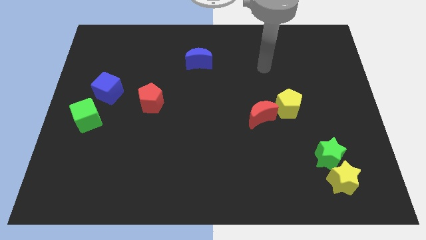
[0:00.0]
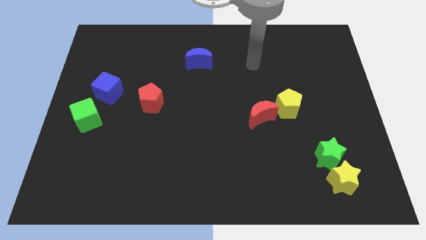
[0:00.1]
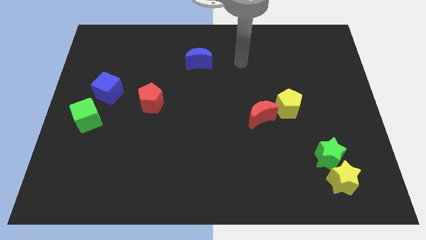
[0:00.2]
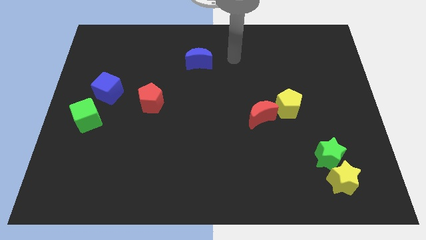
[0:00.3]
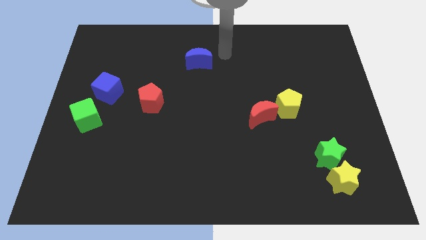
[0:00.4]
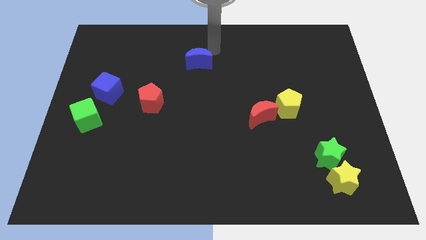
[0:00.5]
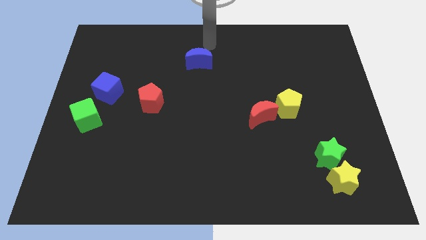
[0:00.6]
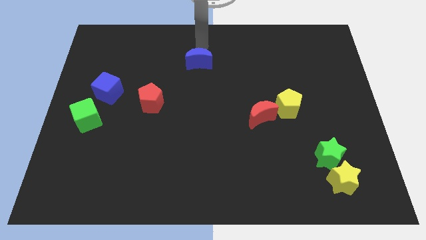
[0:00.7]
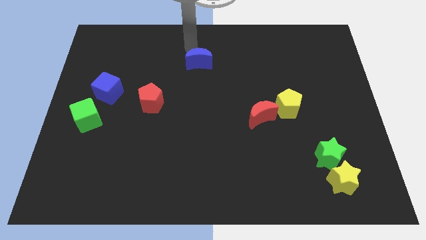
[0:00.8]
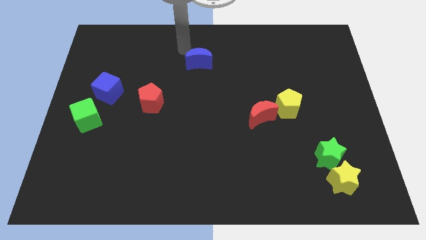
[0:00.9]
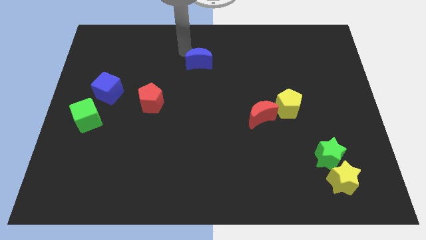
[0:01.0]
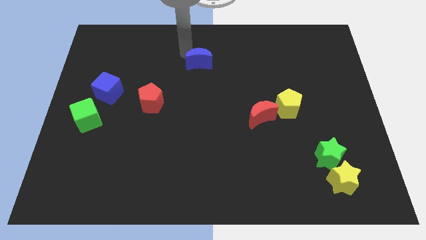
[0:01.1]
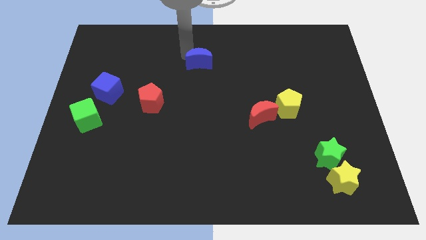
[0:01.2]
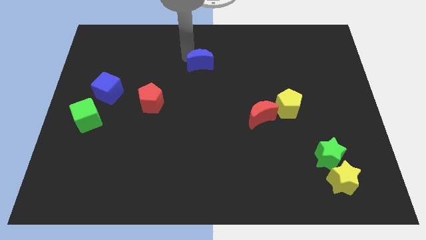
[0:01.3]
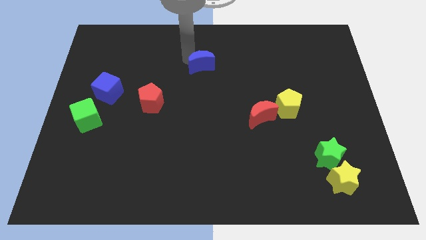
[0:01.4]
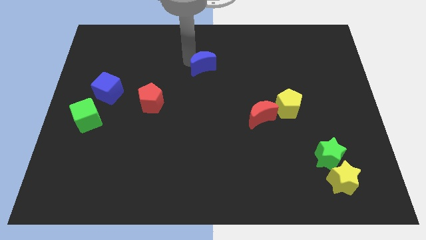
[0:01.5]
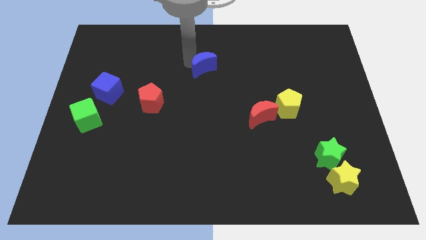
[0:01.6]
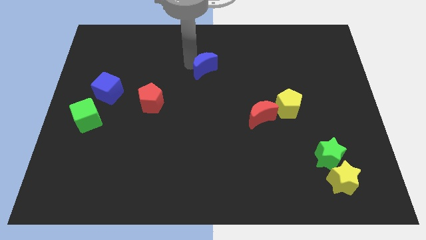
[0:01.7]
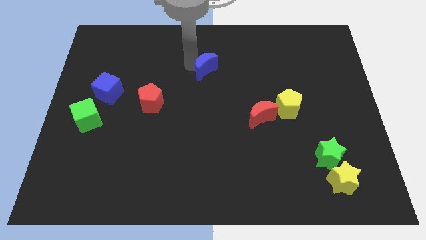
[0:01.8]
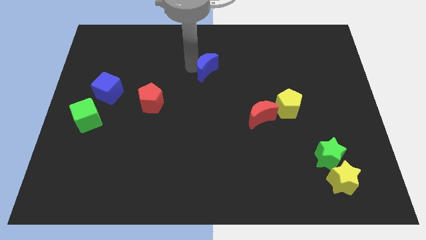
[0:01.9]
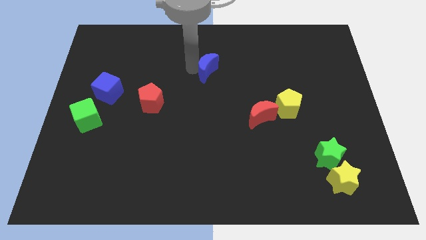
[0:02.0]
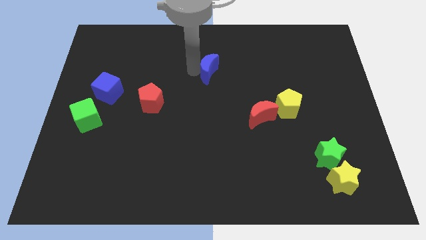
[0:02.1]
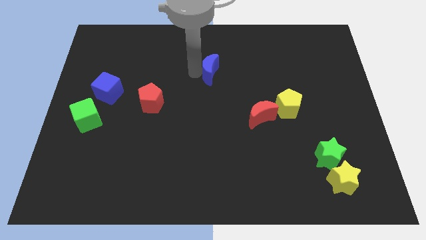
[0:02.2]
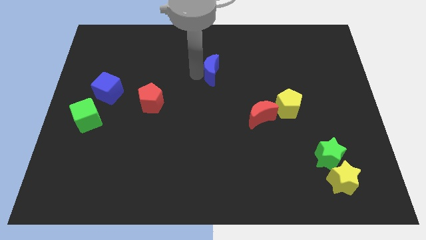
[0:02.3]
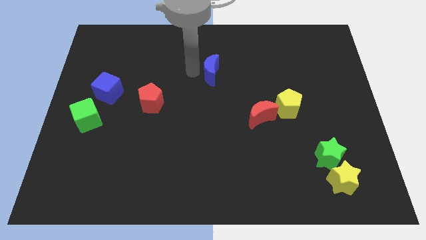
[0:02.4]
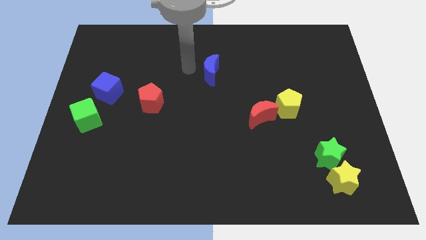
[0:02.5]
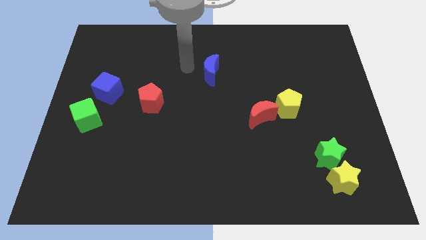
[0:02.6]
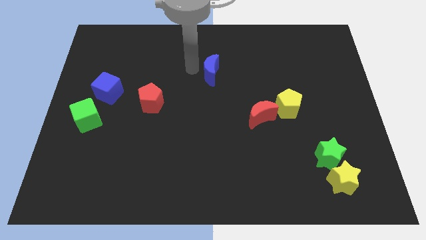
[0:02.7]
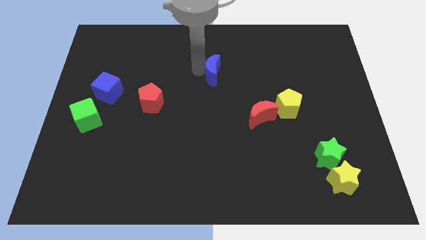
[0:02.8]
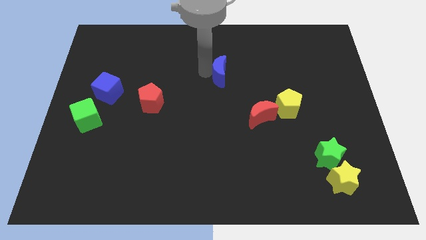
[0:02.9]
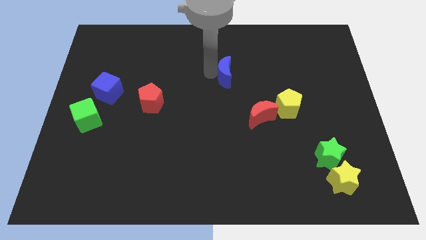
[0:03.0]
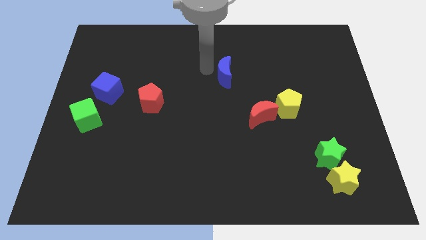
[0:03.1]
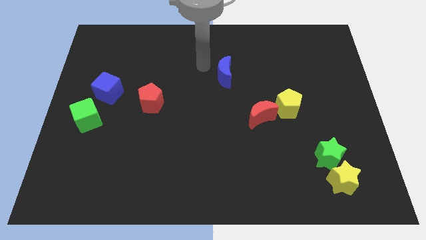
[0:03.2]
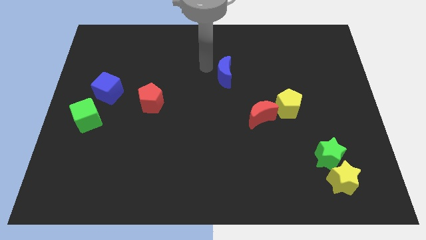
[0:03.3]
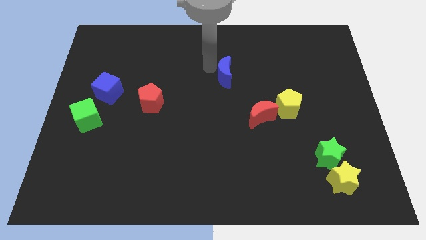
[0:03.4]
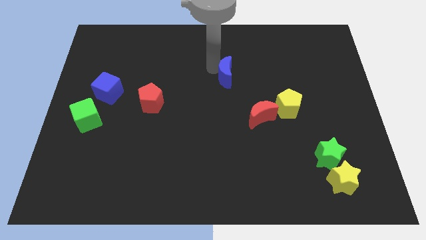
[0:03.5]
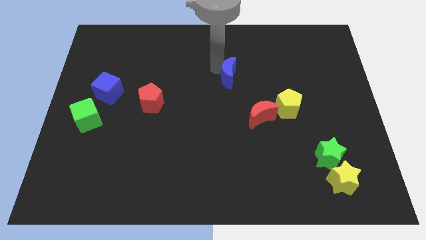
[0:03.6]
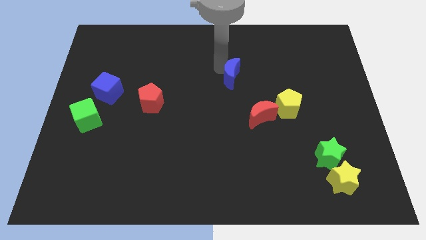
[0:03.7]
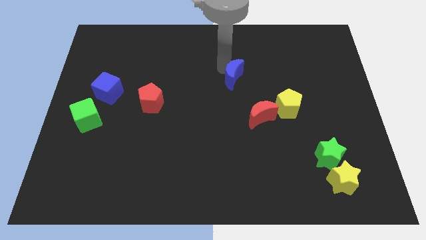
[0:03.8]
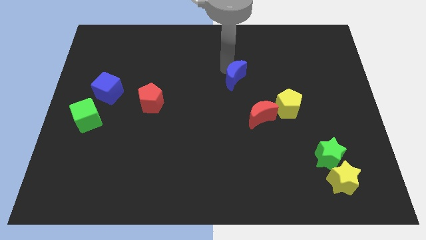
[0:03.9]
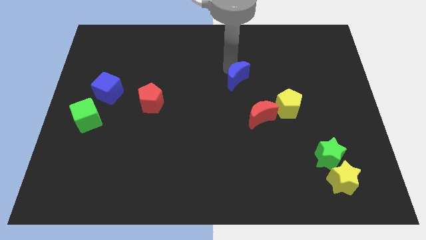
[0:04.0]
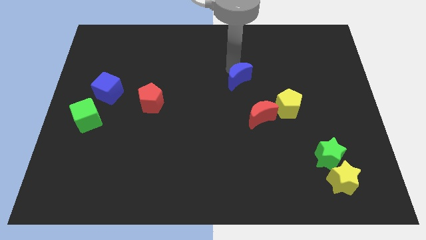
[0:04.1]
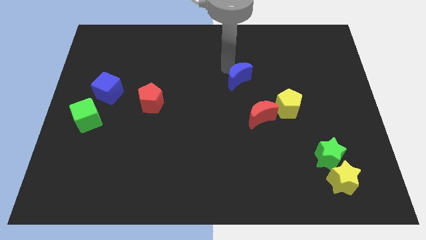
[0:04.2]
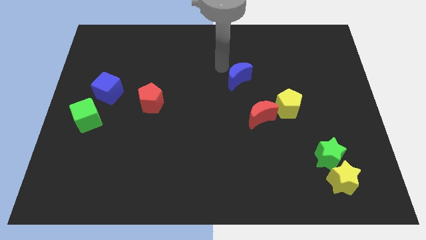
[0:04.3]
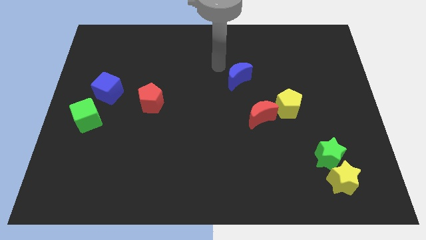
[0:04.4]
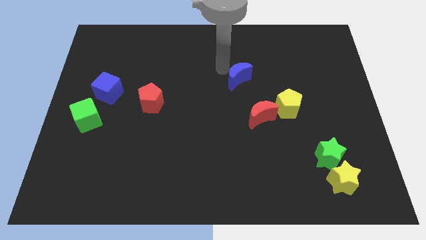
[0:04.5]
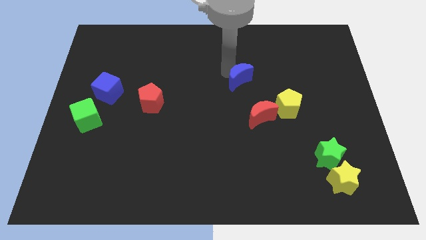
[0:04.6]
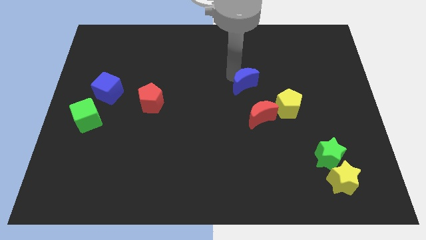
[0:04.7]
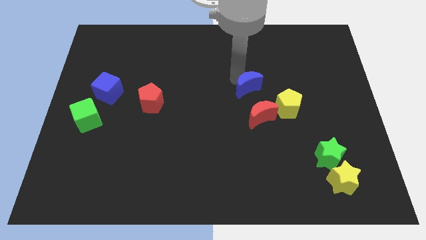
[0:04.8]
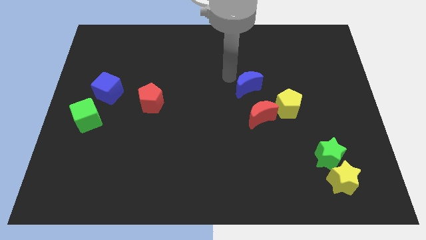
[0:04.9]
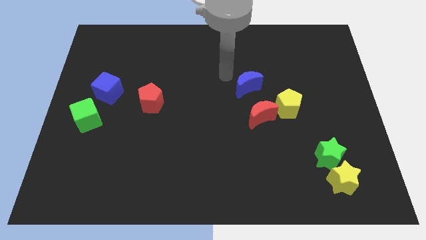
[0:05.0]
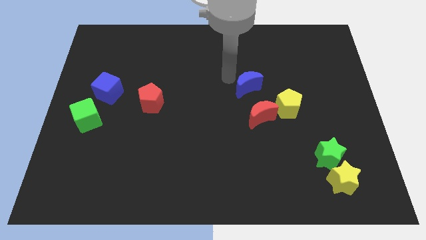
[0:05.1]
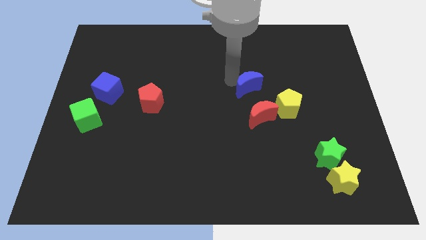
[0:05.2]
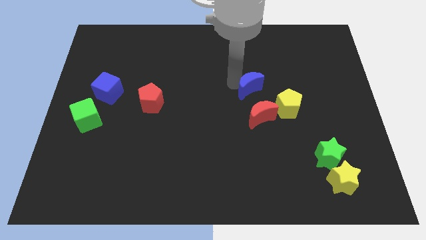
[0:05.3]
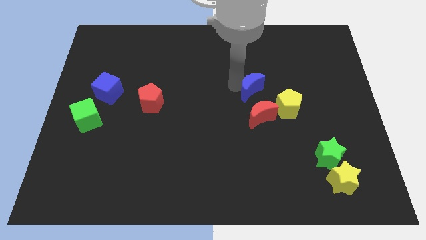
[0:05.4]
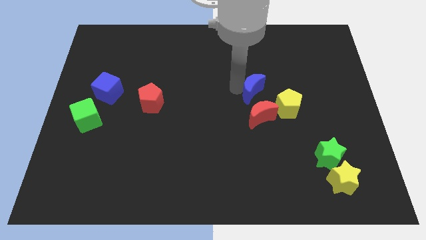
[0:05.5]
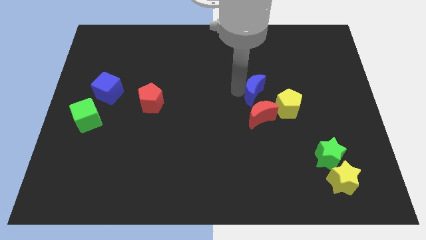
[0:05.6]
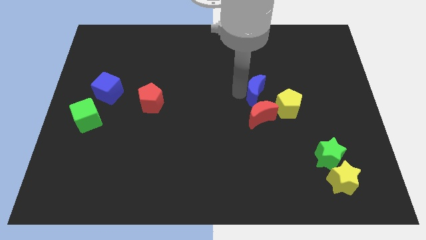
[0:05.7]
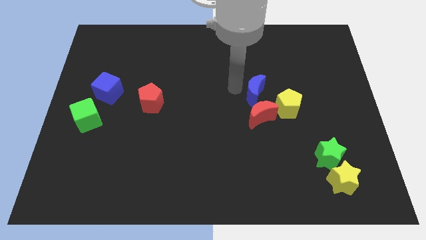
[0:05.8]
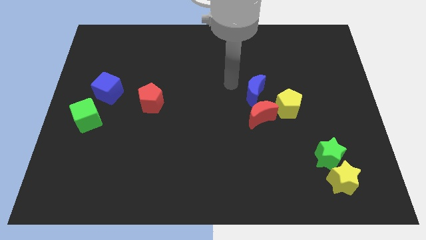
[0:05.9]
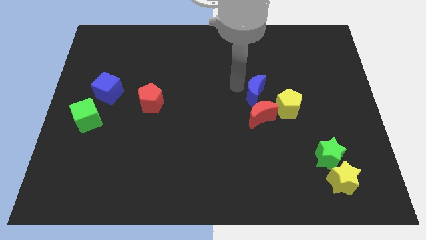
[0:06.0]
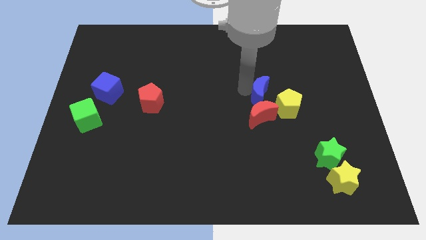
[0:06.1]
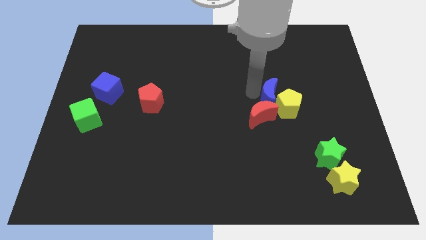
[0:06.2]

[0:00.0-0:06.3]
move the blue moon next to the yellow pentagon

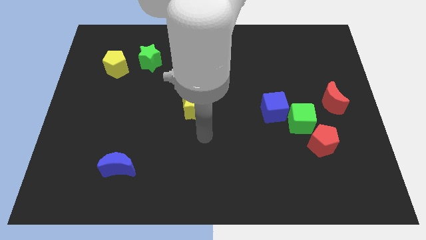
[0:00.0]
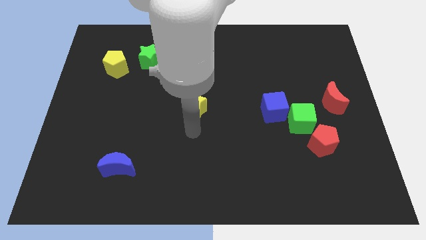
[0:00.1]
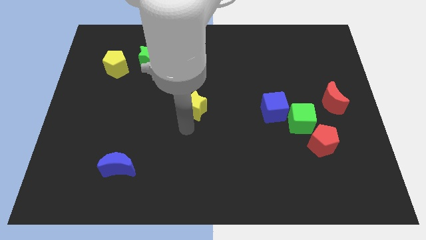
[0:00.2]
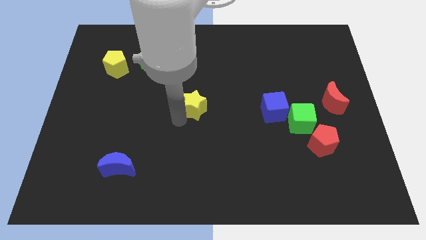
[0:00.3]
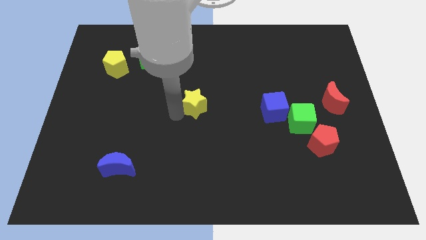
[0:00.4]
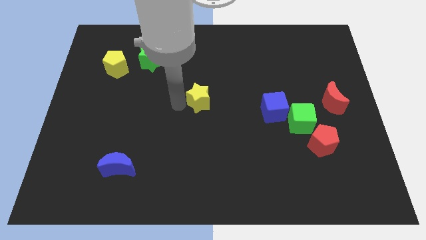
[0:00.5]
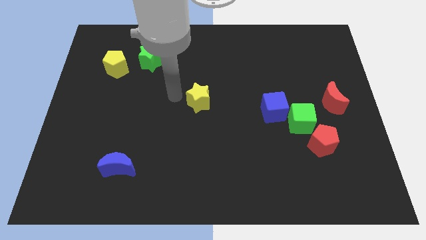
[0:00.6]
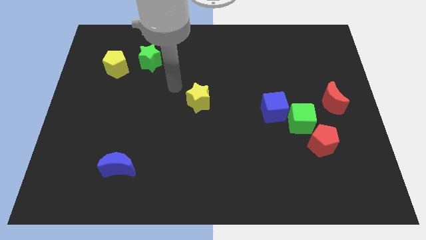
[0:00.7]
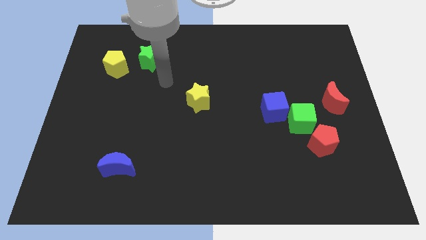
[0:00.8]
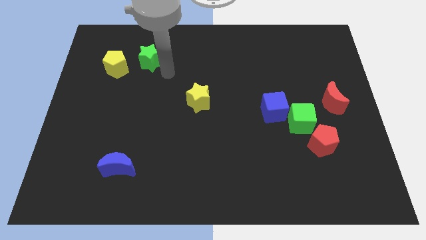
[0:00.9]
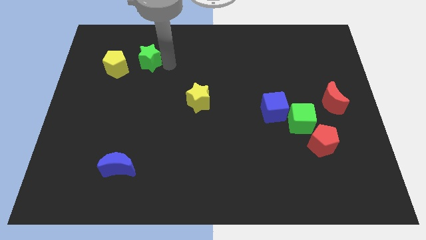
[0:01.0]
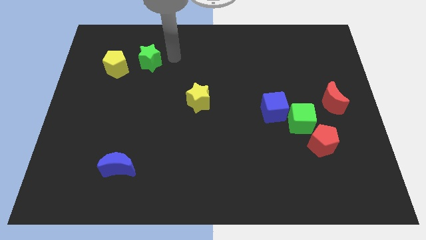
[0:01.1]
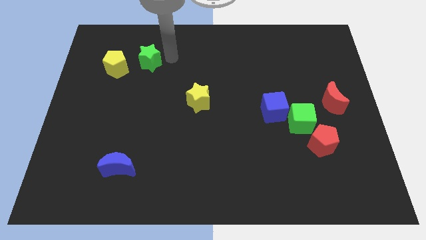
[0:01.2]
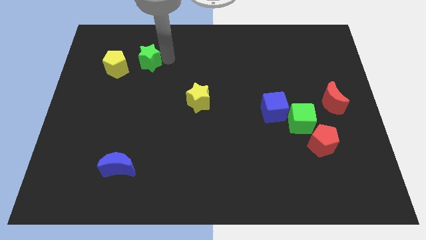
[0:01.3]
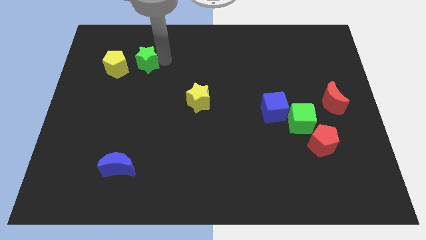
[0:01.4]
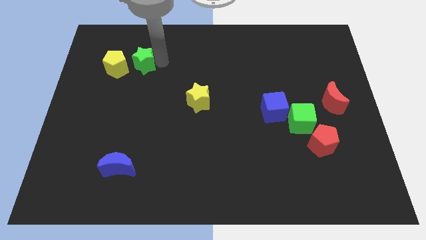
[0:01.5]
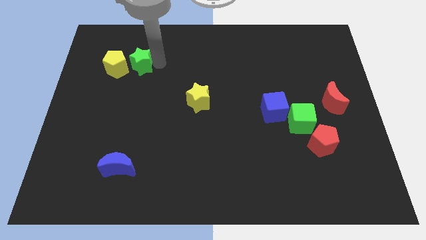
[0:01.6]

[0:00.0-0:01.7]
move the green star next to the yellow pentagon
